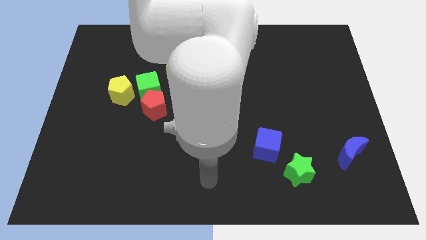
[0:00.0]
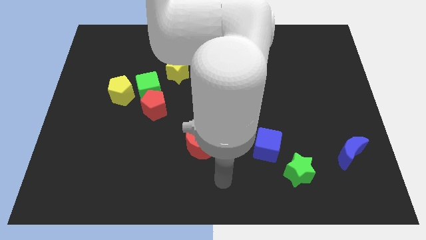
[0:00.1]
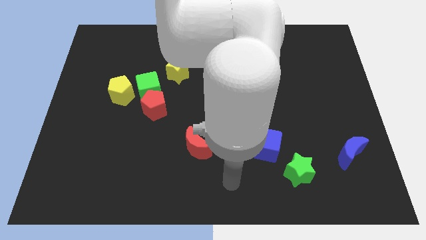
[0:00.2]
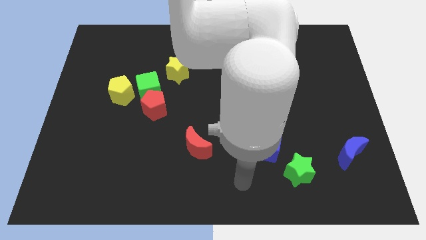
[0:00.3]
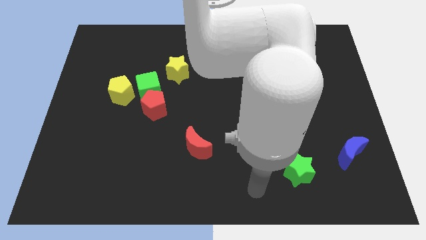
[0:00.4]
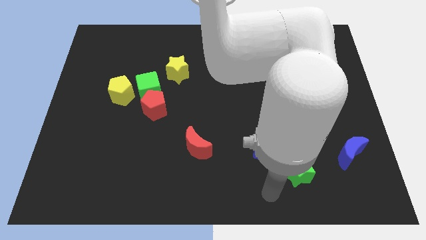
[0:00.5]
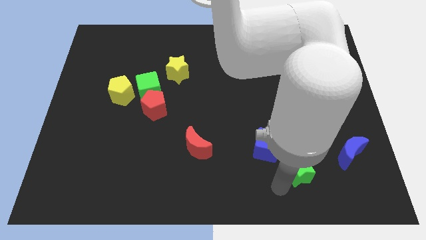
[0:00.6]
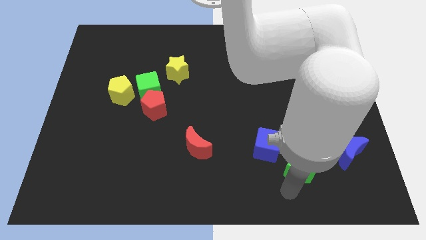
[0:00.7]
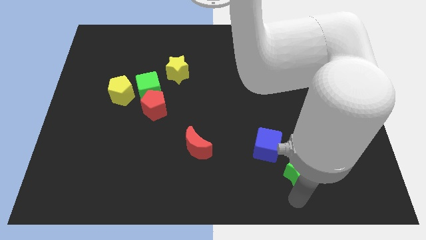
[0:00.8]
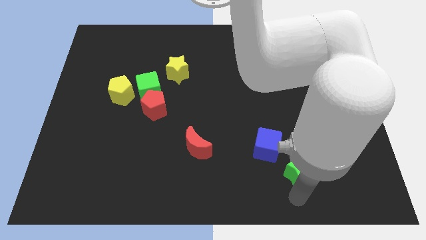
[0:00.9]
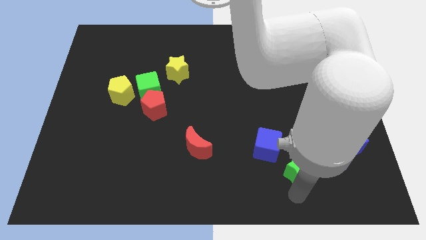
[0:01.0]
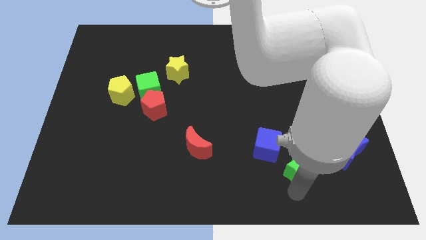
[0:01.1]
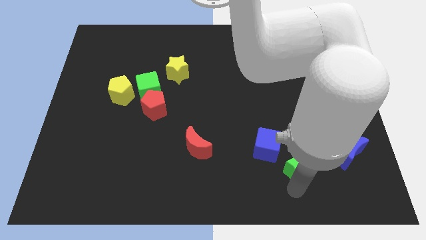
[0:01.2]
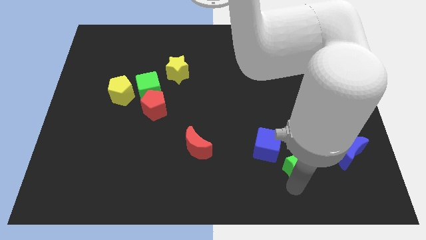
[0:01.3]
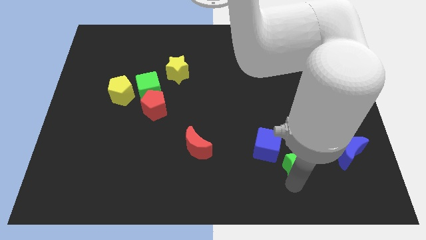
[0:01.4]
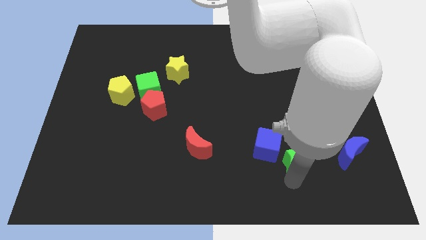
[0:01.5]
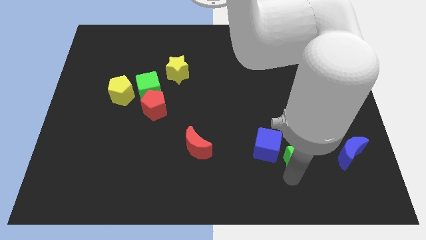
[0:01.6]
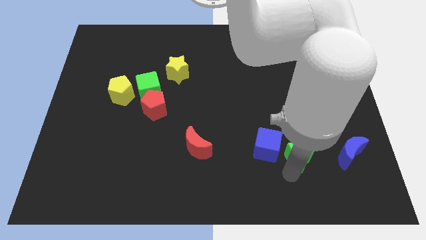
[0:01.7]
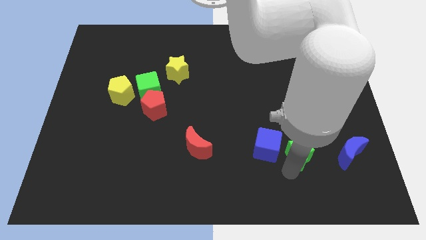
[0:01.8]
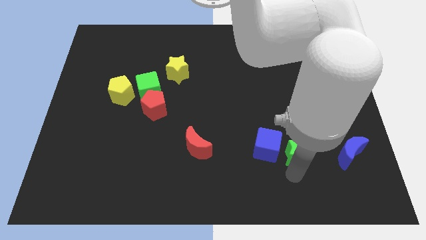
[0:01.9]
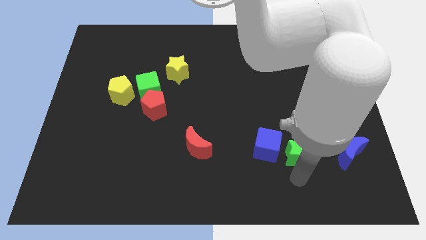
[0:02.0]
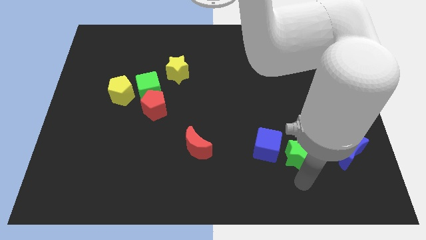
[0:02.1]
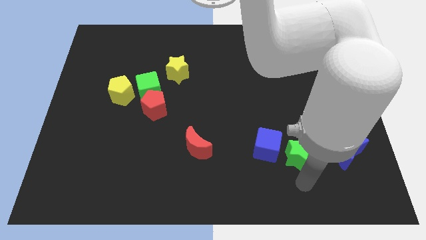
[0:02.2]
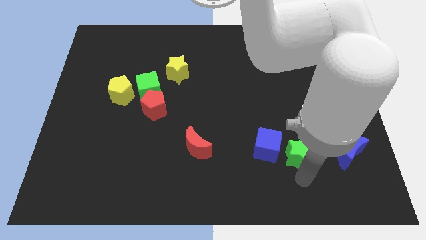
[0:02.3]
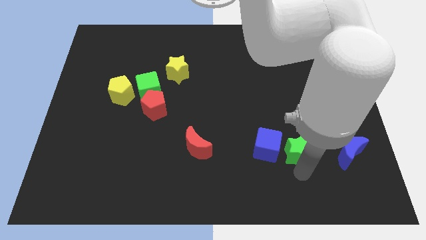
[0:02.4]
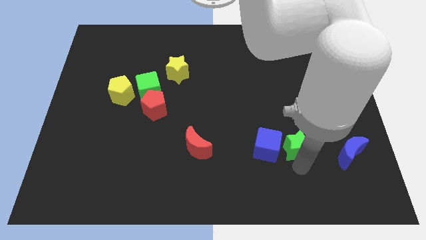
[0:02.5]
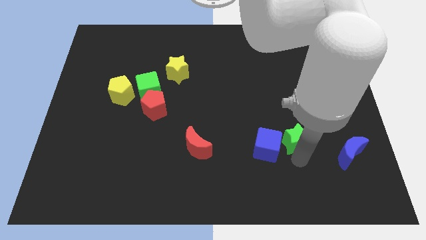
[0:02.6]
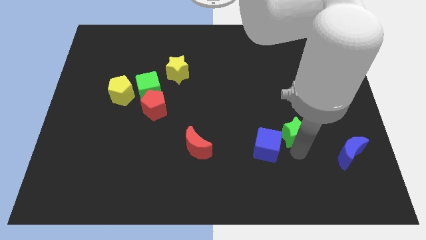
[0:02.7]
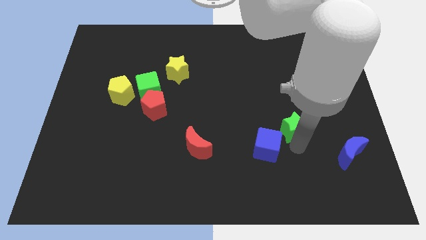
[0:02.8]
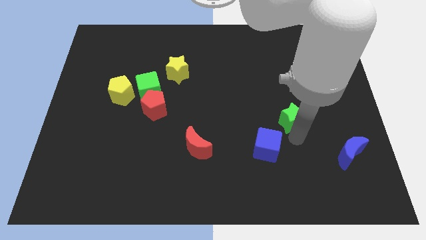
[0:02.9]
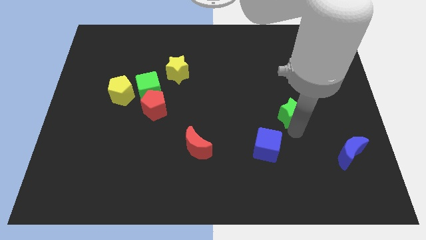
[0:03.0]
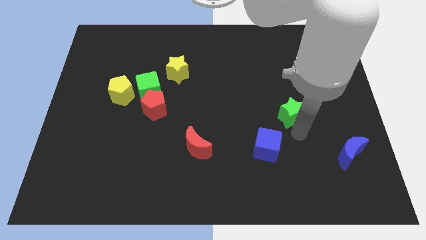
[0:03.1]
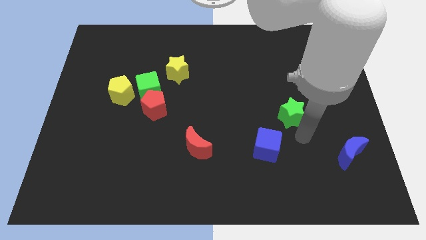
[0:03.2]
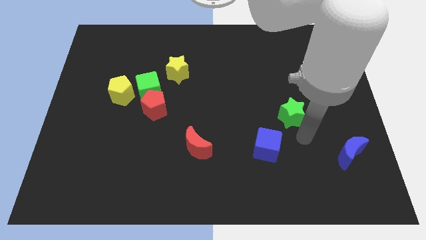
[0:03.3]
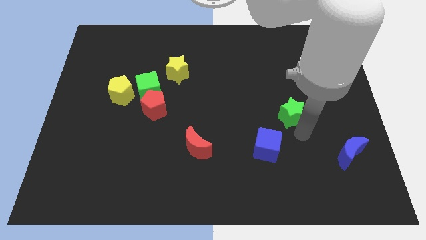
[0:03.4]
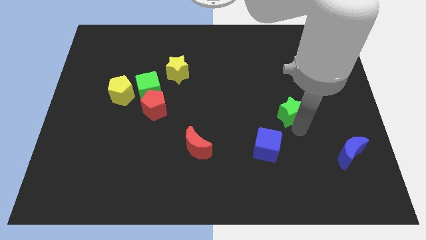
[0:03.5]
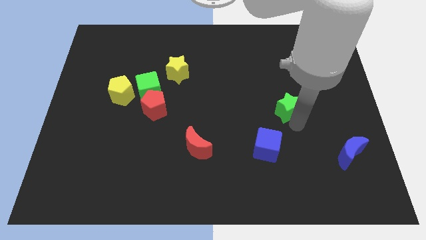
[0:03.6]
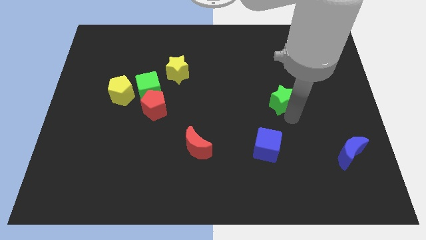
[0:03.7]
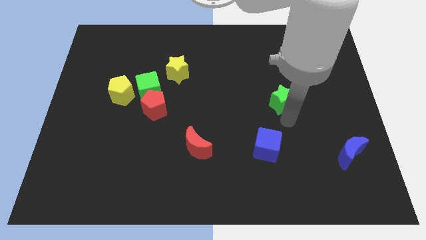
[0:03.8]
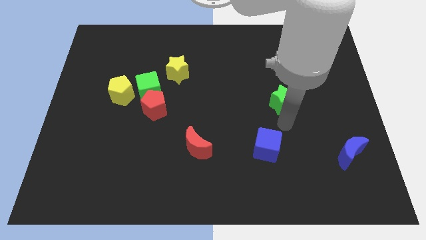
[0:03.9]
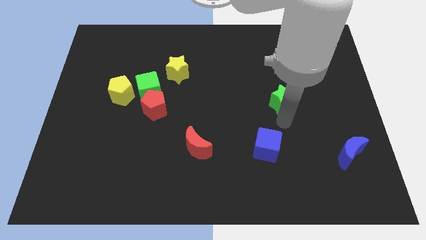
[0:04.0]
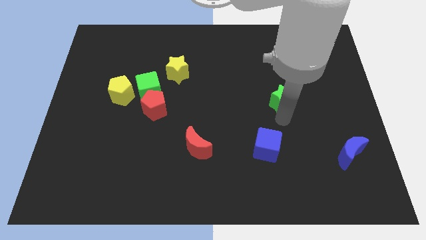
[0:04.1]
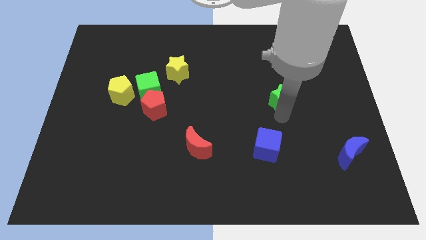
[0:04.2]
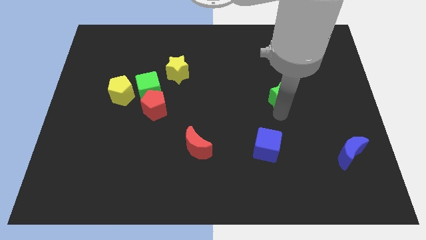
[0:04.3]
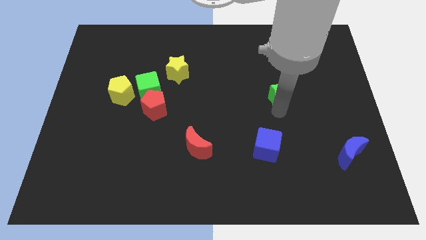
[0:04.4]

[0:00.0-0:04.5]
push the green star up

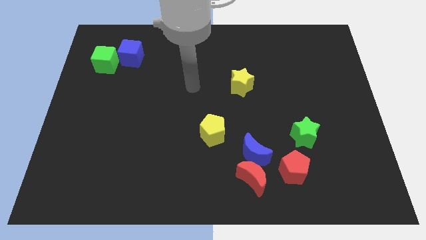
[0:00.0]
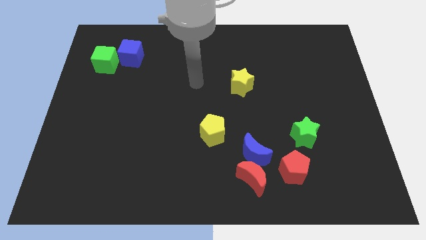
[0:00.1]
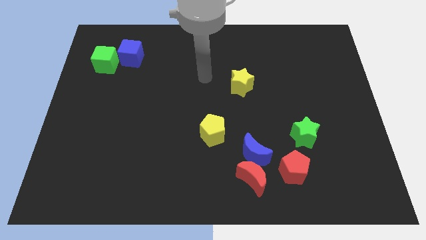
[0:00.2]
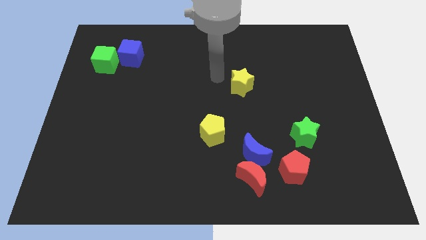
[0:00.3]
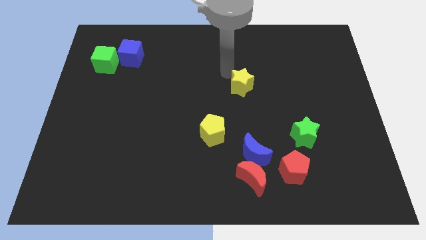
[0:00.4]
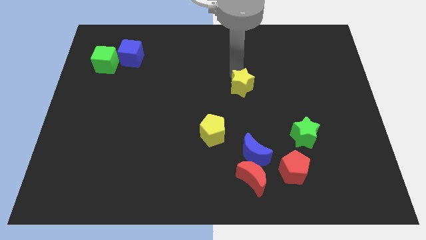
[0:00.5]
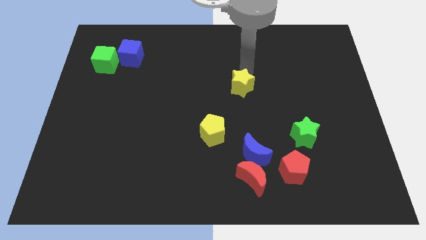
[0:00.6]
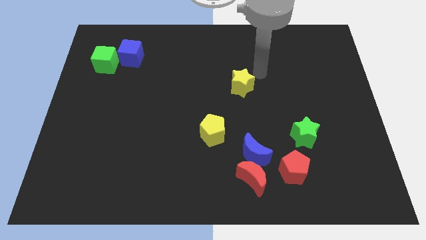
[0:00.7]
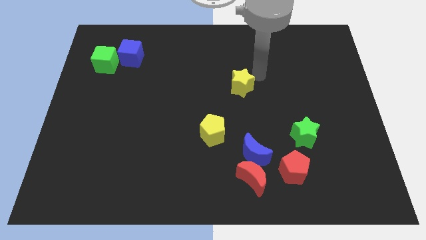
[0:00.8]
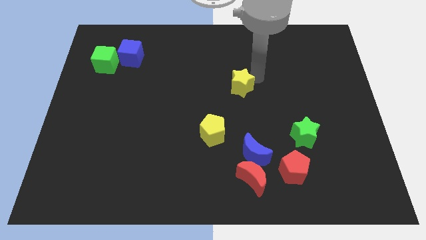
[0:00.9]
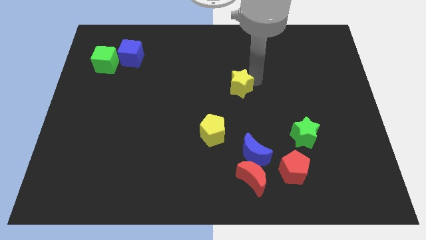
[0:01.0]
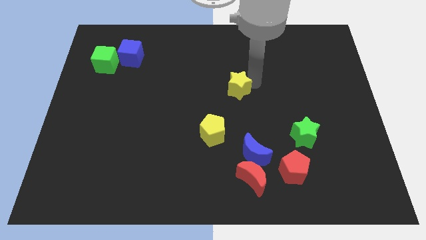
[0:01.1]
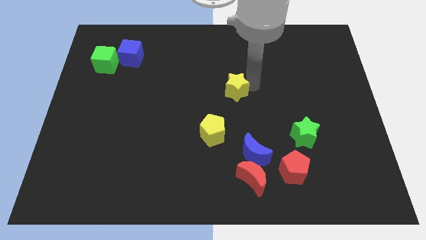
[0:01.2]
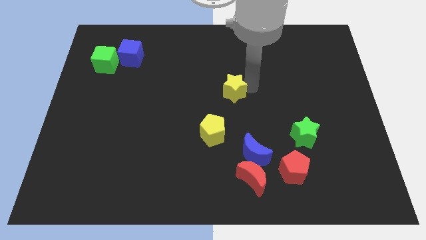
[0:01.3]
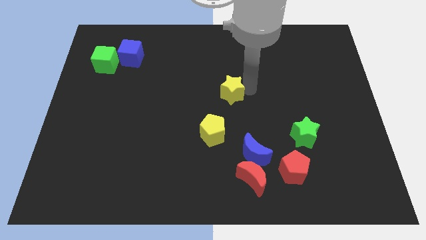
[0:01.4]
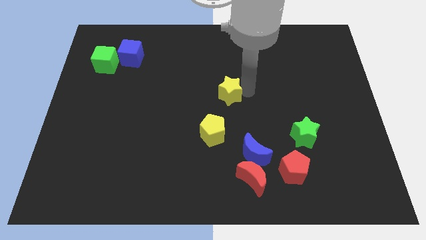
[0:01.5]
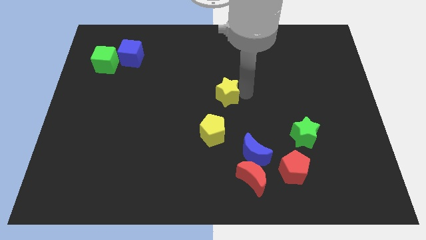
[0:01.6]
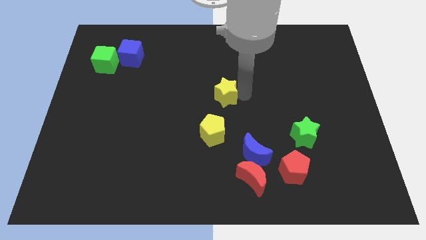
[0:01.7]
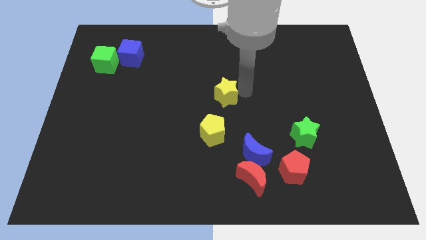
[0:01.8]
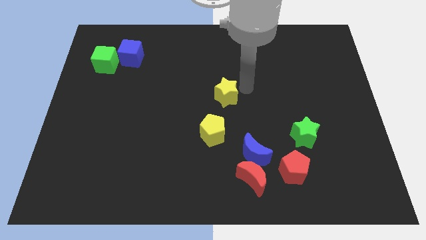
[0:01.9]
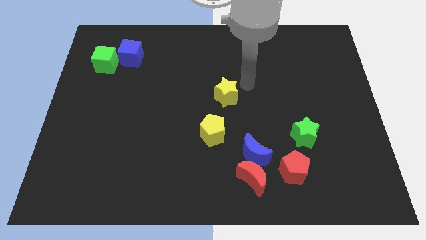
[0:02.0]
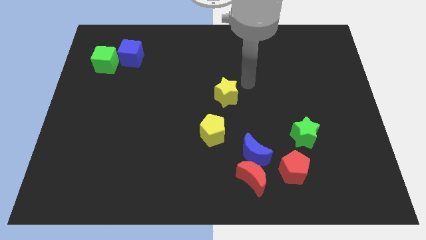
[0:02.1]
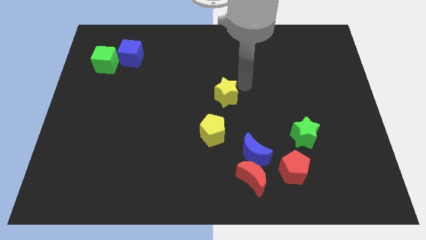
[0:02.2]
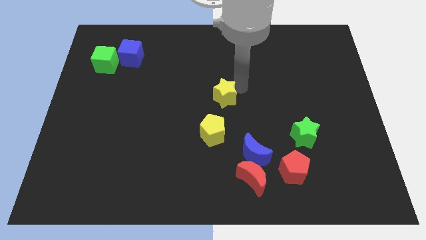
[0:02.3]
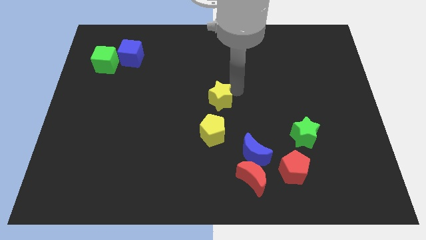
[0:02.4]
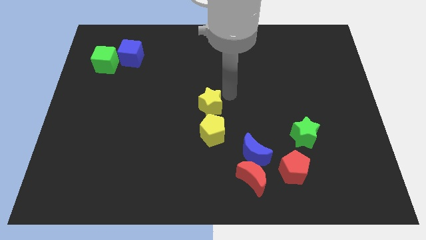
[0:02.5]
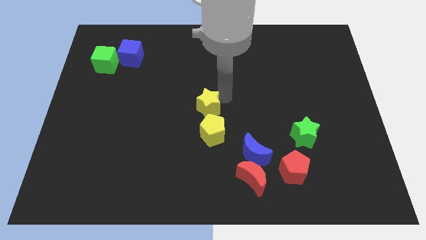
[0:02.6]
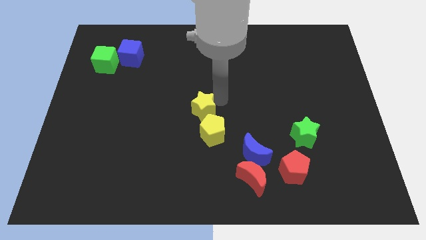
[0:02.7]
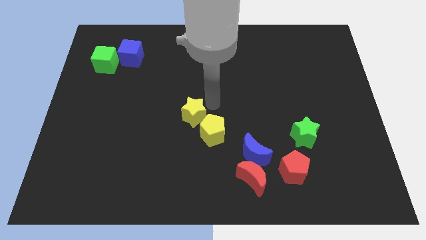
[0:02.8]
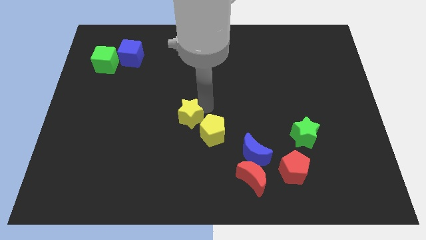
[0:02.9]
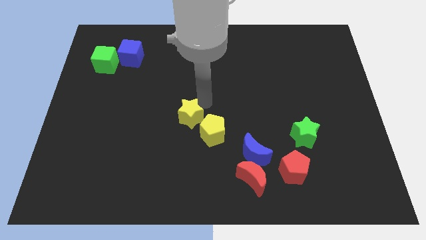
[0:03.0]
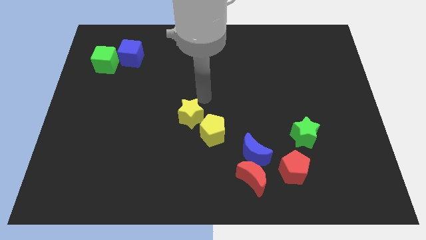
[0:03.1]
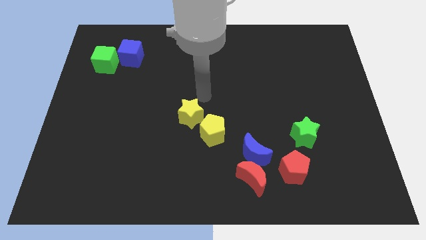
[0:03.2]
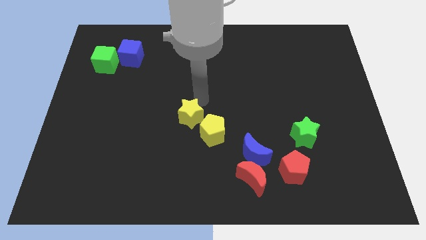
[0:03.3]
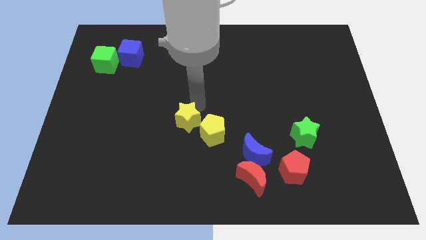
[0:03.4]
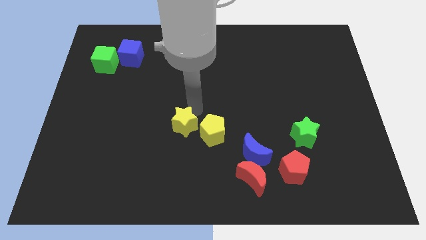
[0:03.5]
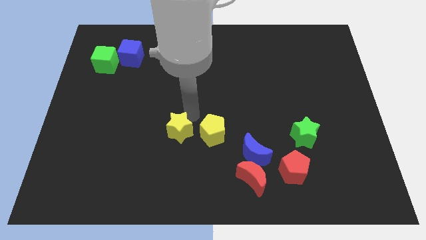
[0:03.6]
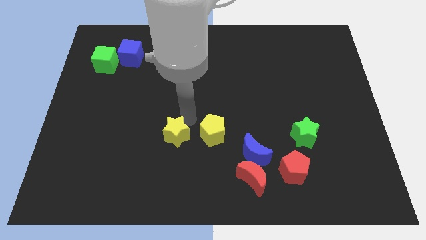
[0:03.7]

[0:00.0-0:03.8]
slide the yellow star downwards and to the left
